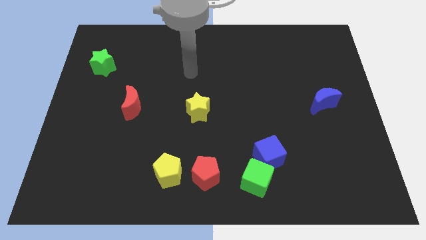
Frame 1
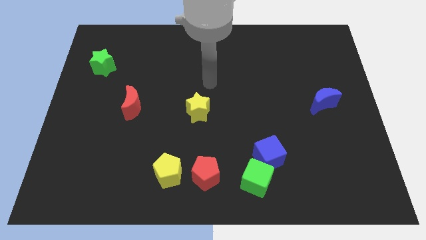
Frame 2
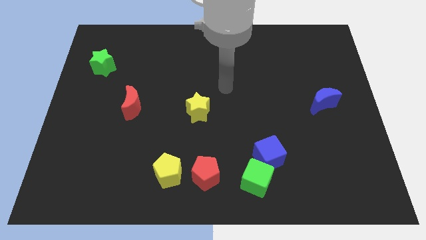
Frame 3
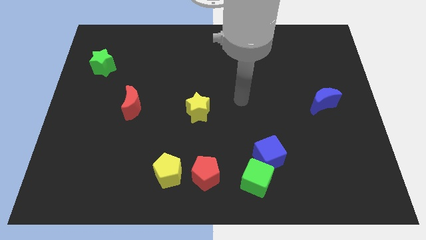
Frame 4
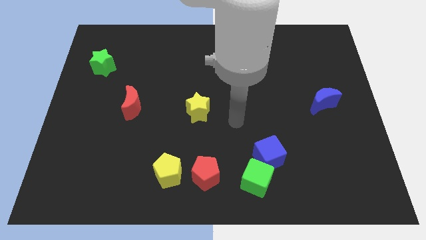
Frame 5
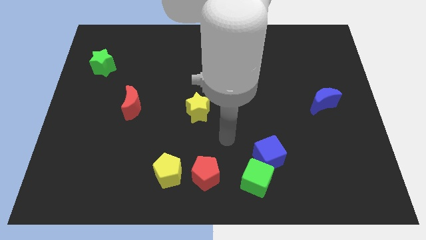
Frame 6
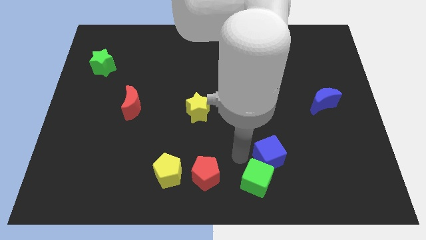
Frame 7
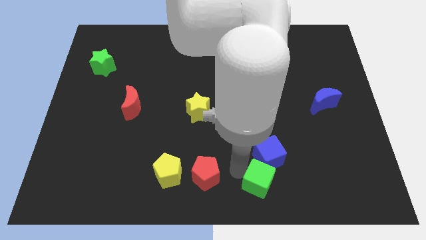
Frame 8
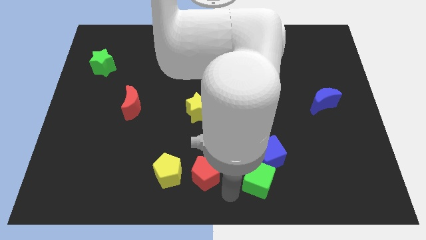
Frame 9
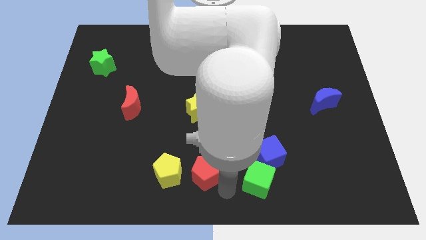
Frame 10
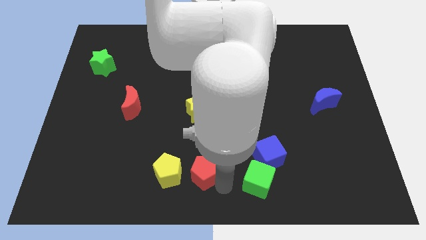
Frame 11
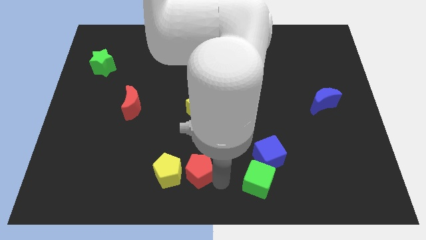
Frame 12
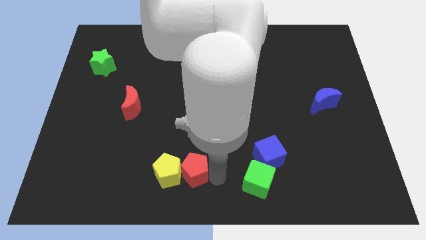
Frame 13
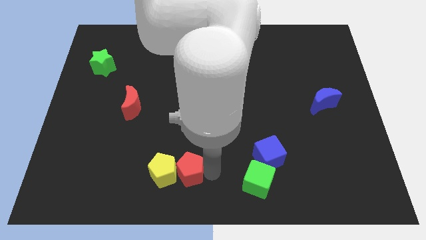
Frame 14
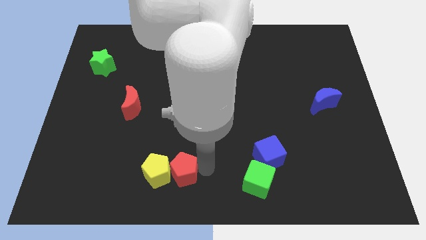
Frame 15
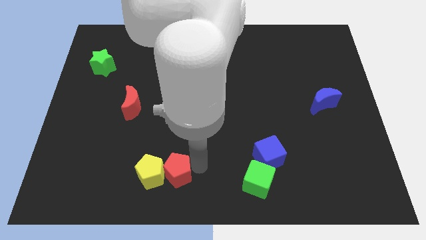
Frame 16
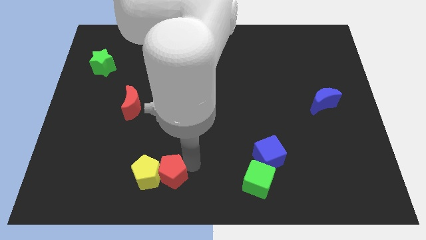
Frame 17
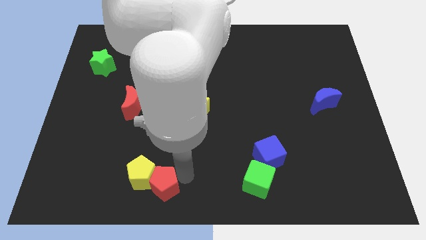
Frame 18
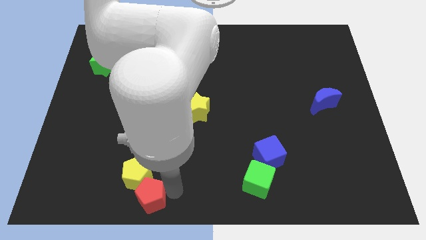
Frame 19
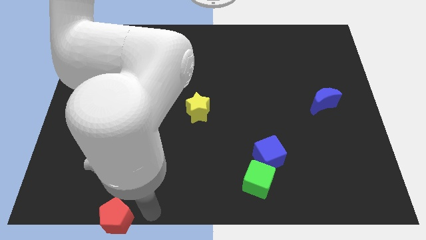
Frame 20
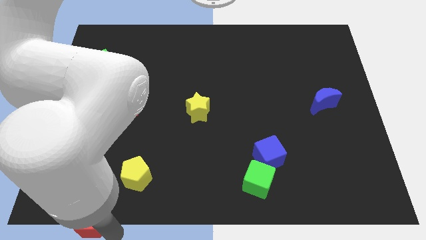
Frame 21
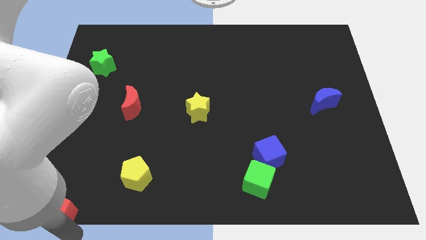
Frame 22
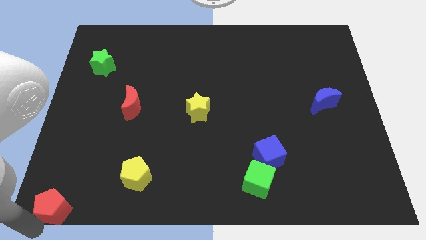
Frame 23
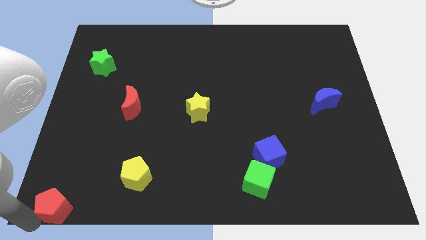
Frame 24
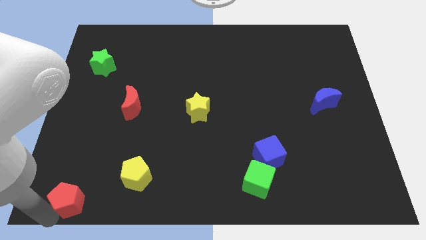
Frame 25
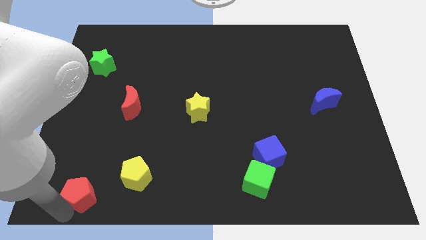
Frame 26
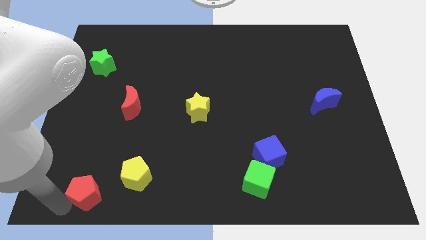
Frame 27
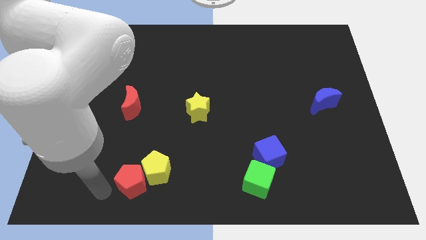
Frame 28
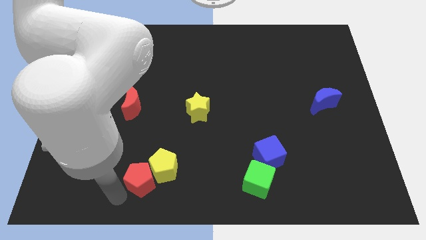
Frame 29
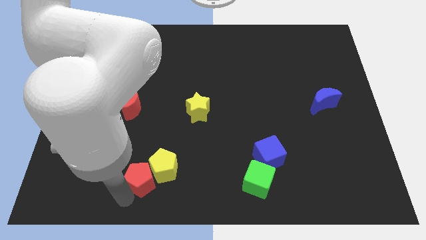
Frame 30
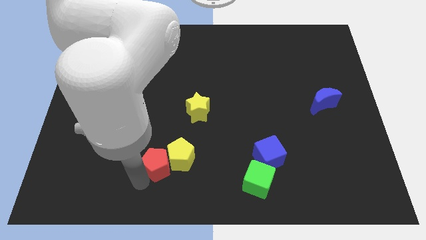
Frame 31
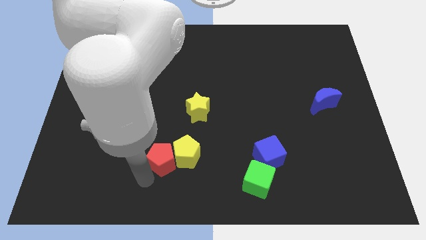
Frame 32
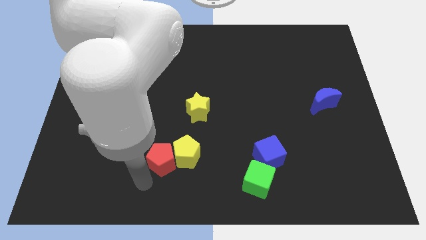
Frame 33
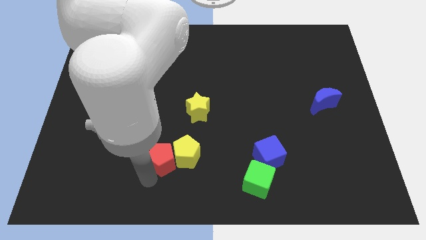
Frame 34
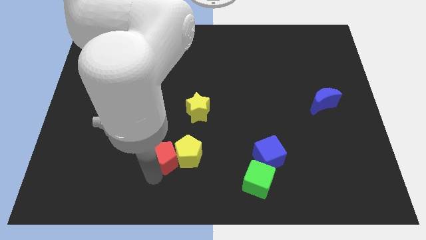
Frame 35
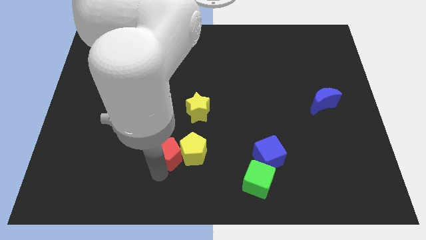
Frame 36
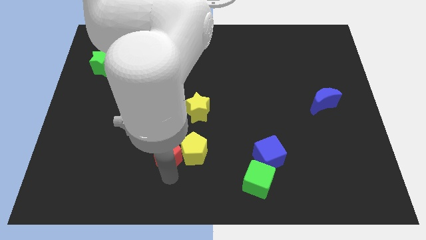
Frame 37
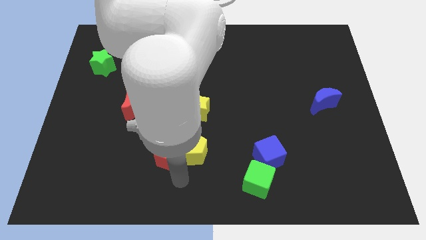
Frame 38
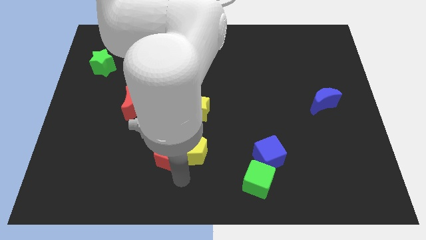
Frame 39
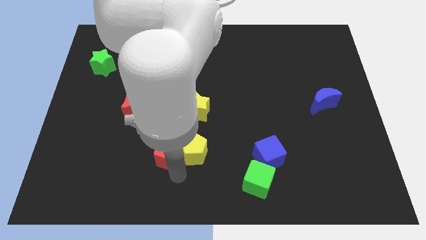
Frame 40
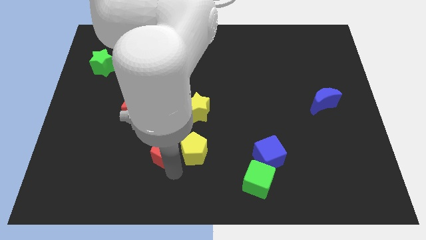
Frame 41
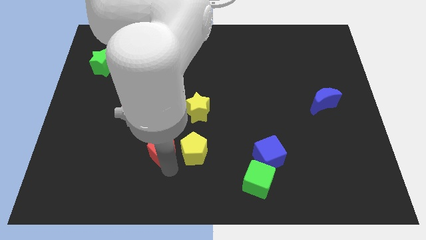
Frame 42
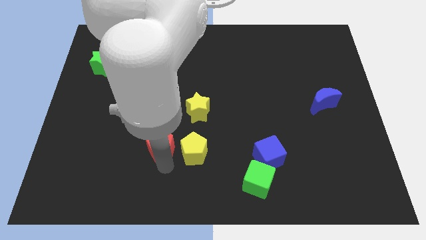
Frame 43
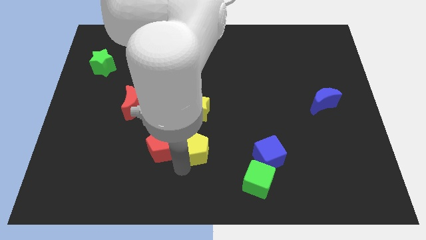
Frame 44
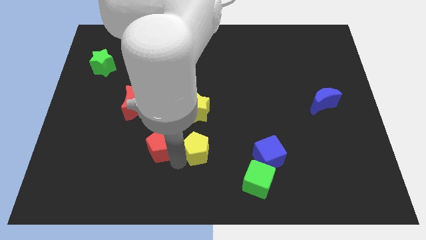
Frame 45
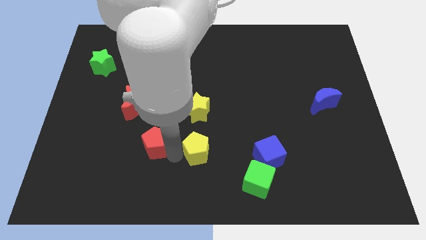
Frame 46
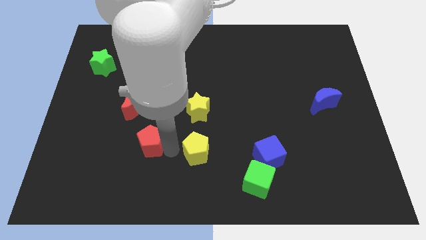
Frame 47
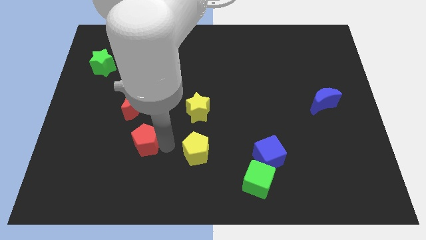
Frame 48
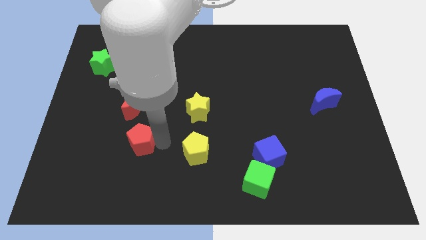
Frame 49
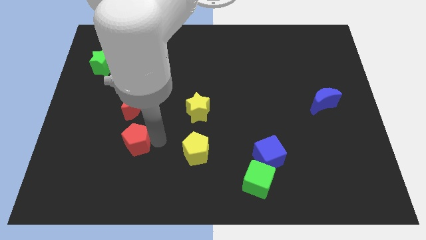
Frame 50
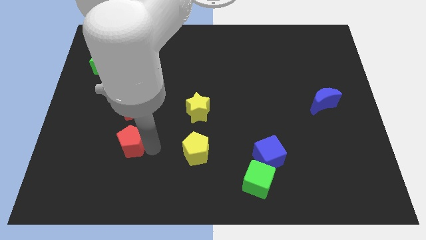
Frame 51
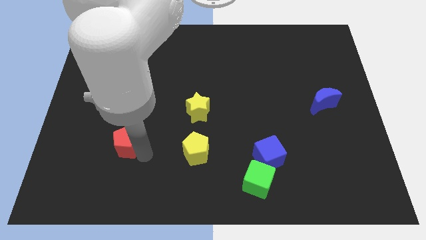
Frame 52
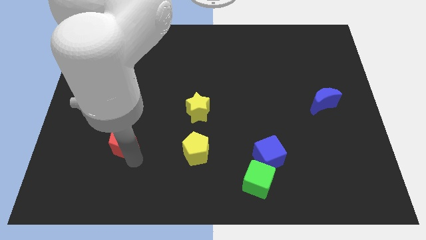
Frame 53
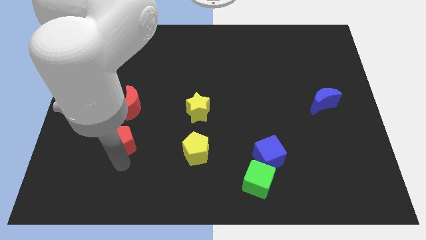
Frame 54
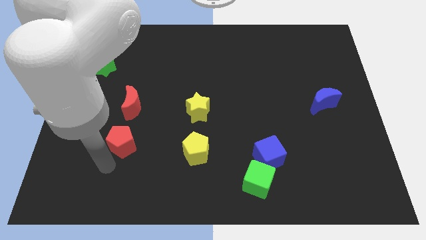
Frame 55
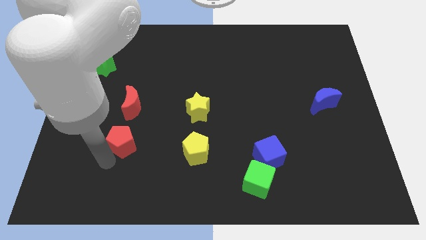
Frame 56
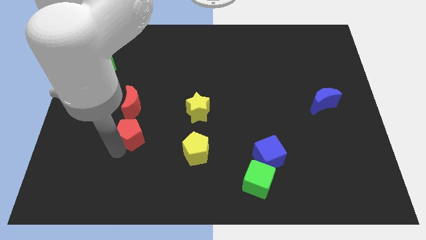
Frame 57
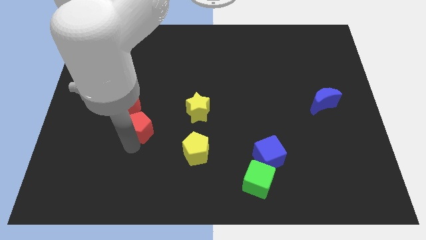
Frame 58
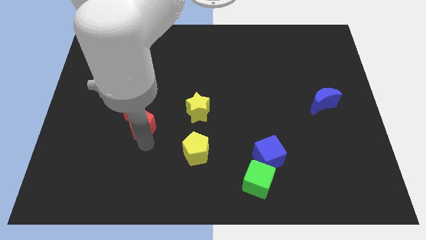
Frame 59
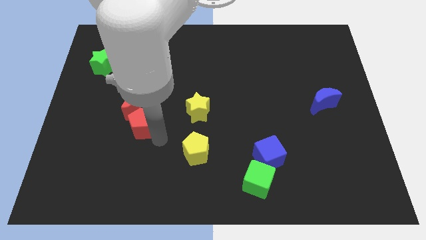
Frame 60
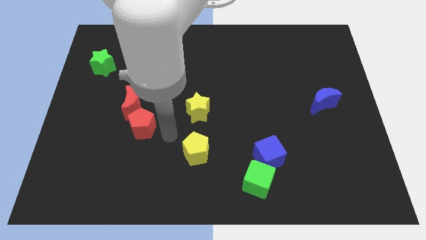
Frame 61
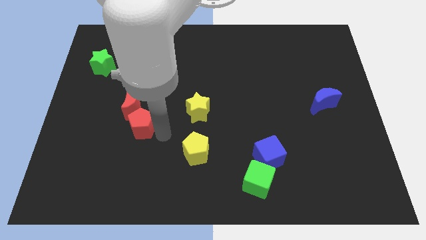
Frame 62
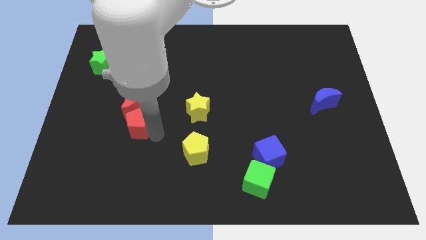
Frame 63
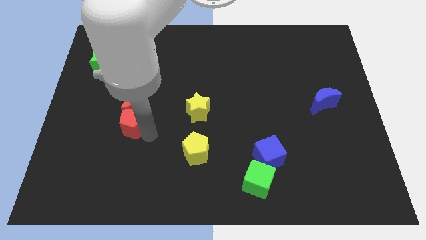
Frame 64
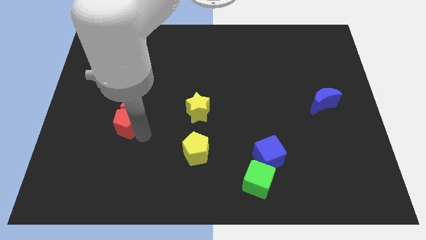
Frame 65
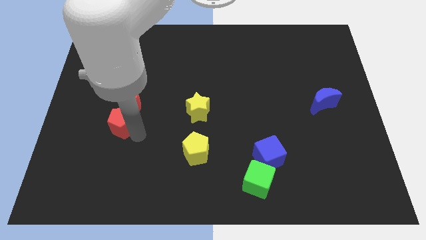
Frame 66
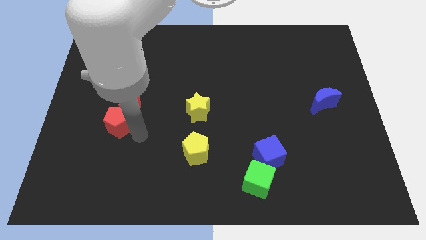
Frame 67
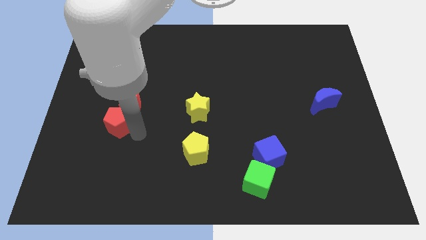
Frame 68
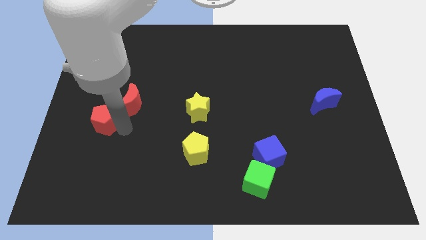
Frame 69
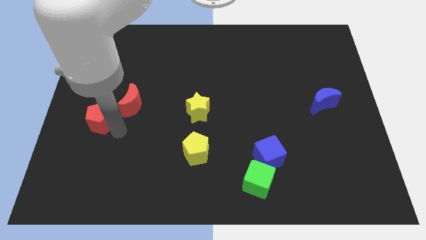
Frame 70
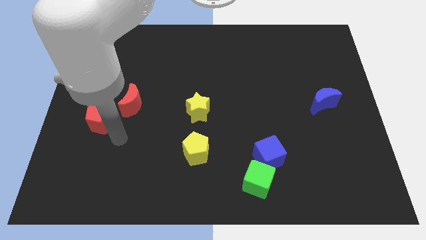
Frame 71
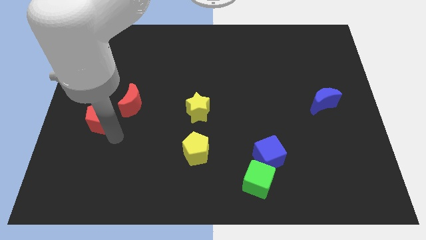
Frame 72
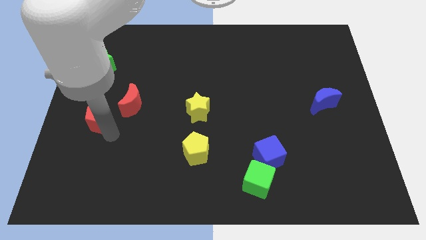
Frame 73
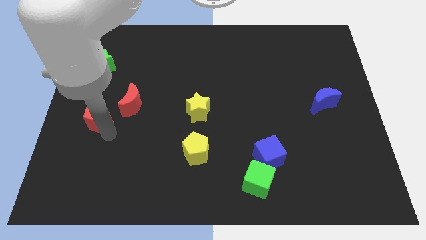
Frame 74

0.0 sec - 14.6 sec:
move the red pentagon to the center left

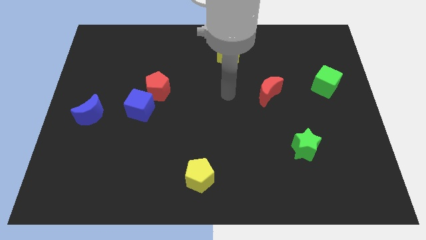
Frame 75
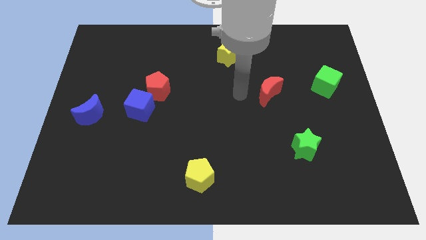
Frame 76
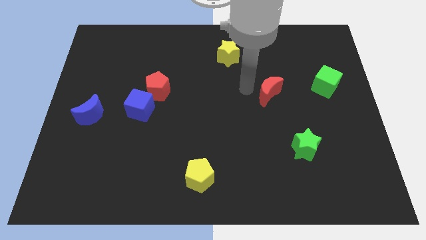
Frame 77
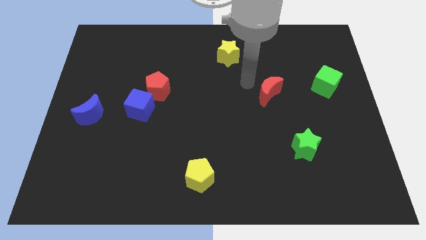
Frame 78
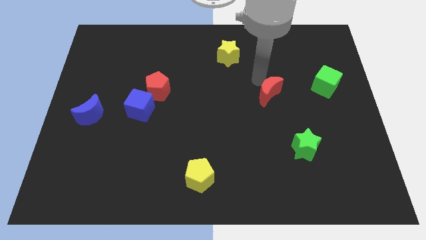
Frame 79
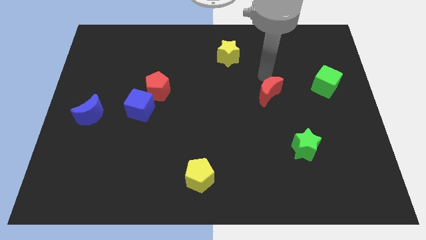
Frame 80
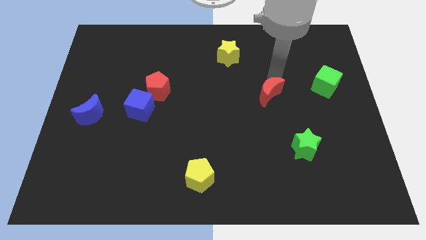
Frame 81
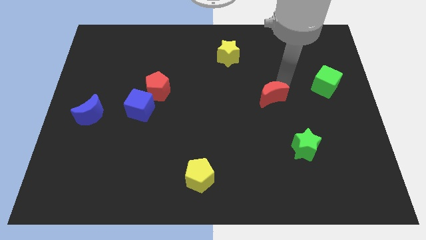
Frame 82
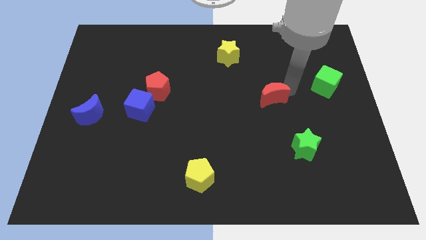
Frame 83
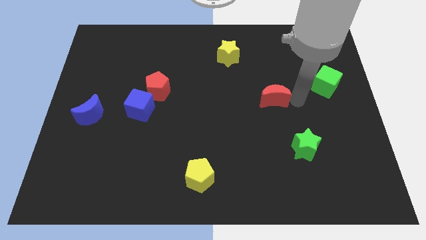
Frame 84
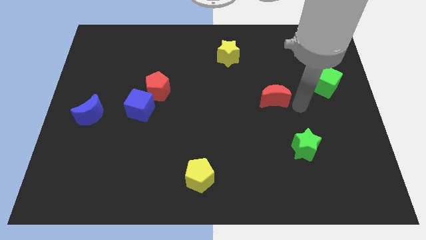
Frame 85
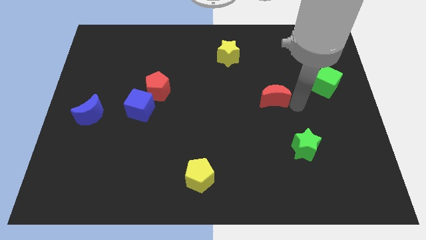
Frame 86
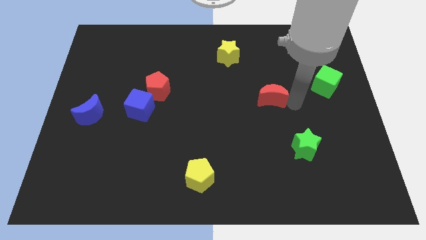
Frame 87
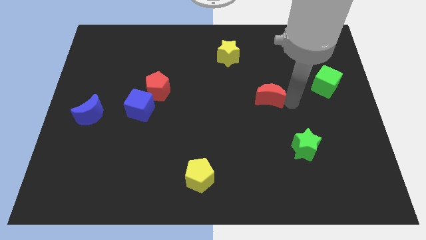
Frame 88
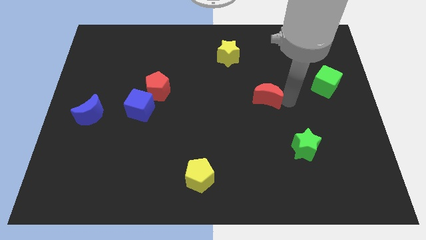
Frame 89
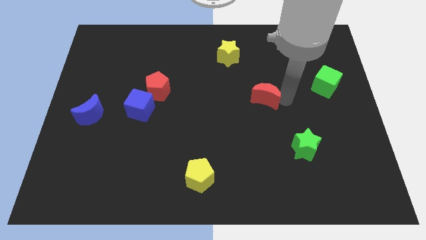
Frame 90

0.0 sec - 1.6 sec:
push the red moon to the center of the board
